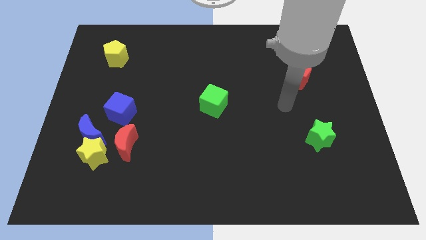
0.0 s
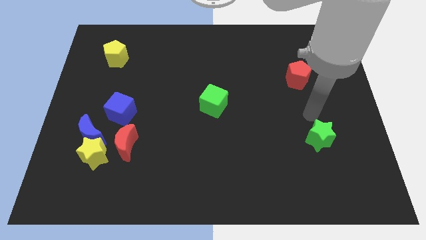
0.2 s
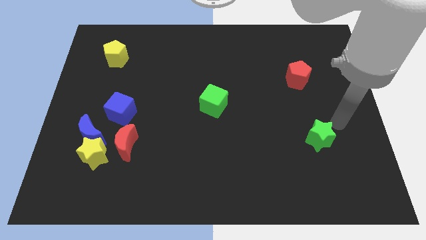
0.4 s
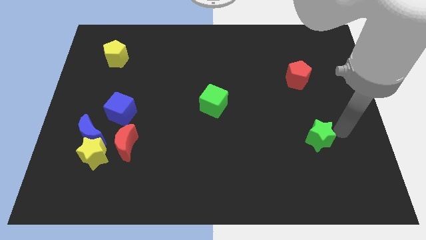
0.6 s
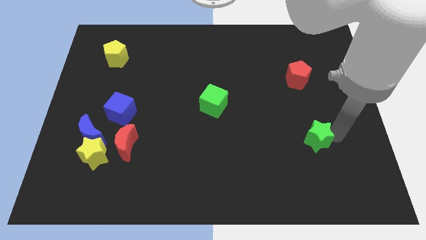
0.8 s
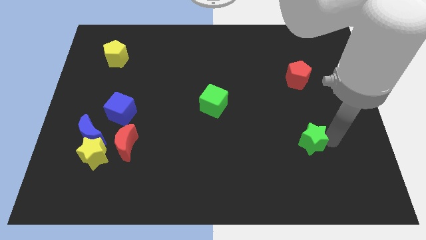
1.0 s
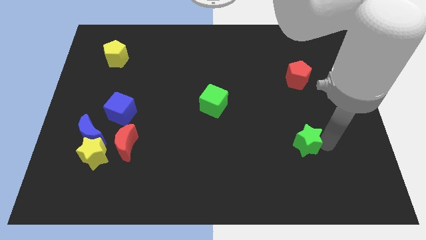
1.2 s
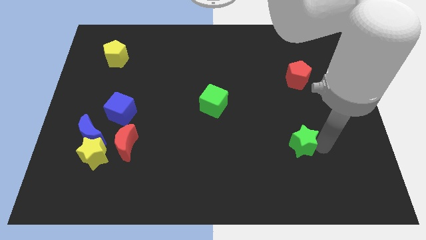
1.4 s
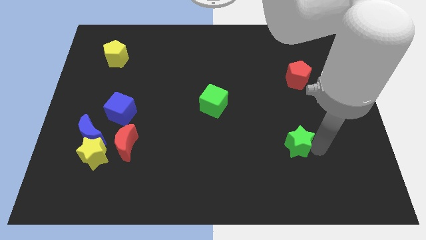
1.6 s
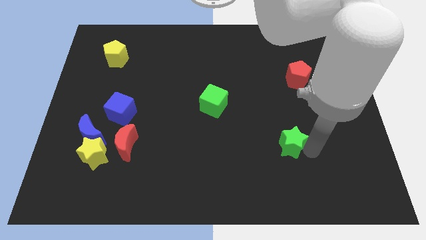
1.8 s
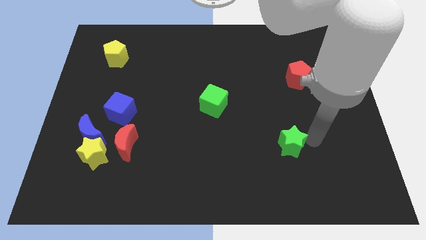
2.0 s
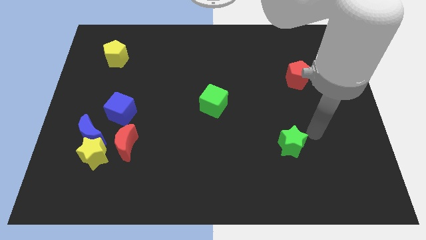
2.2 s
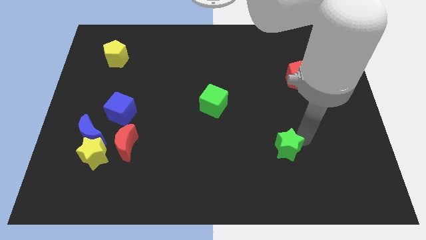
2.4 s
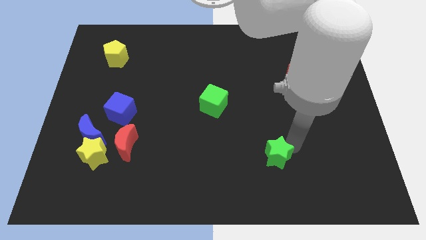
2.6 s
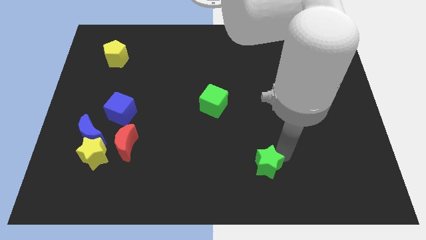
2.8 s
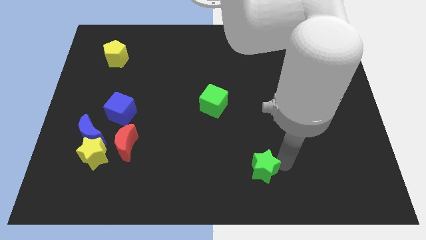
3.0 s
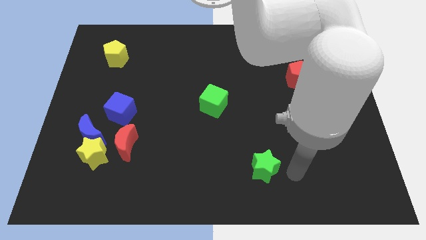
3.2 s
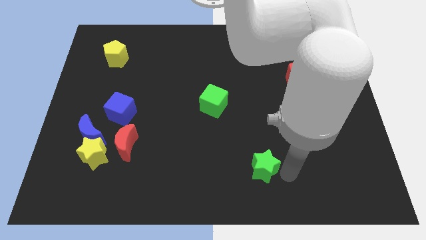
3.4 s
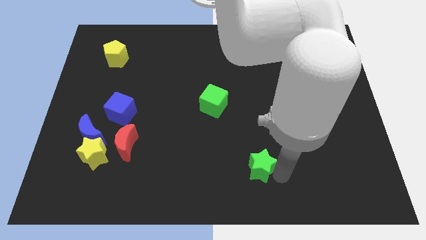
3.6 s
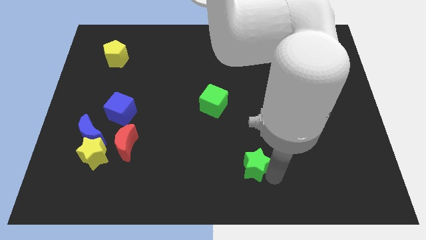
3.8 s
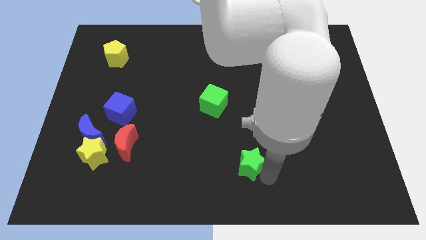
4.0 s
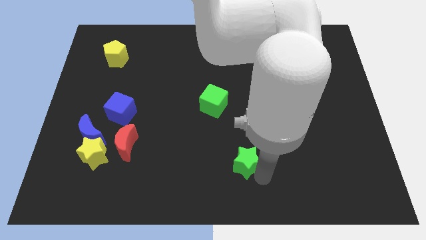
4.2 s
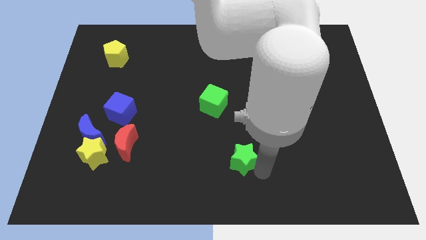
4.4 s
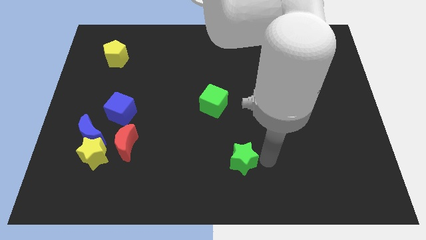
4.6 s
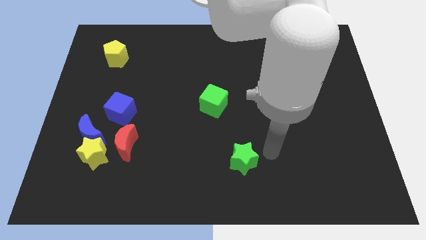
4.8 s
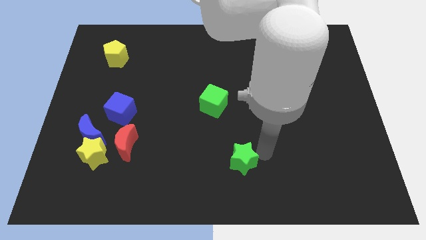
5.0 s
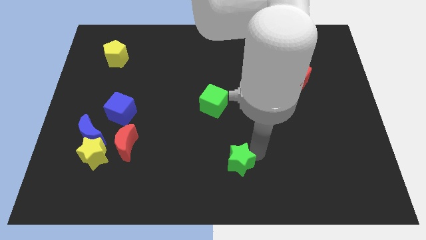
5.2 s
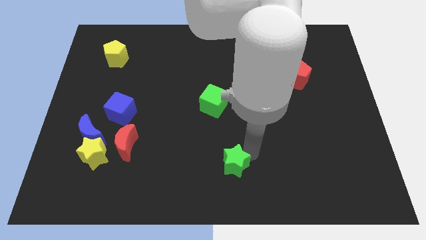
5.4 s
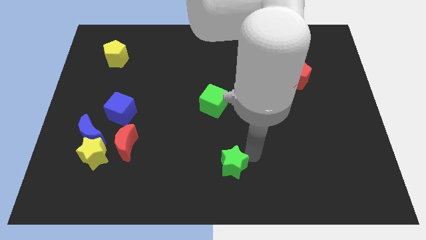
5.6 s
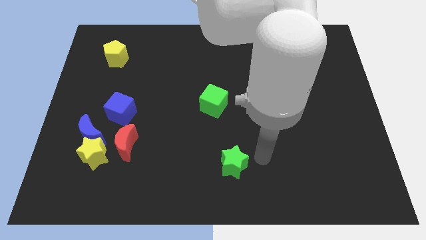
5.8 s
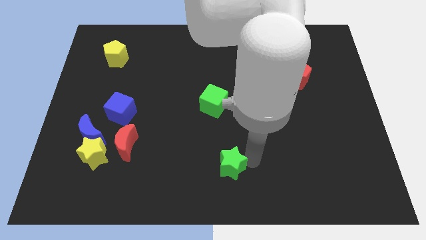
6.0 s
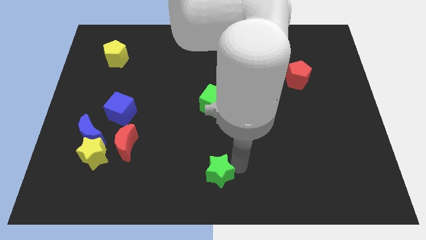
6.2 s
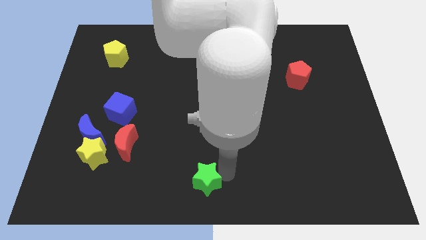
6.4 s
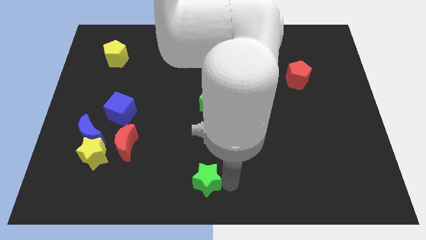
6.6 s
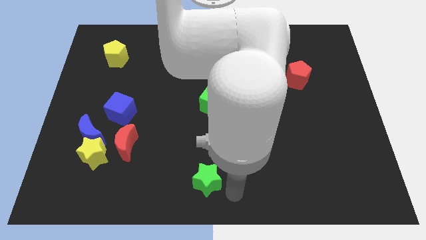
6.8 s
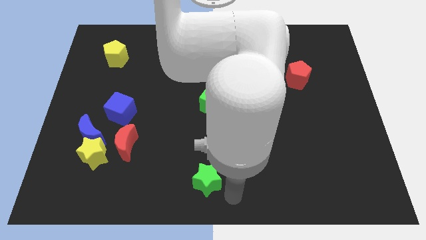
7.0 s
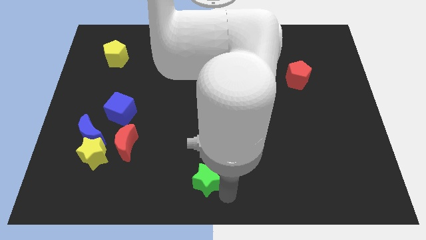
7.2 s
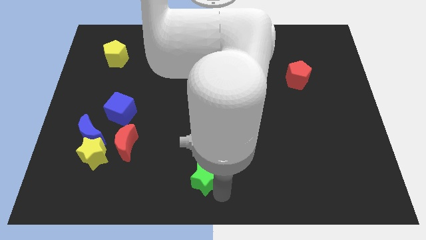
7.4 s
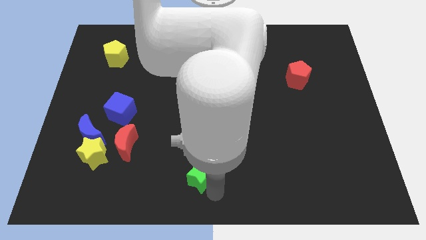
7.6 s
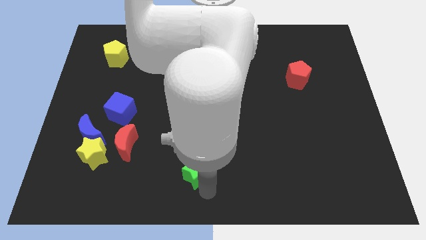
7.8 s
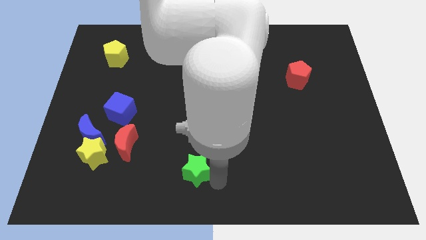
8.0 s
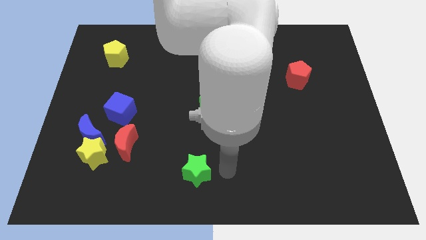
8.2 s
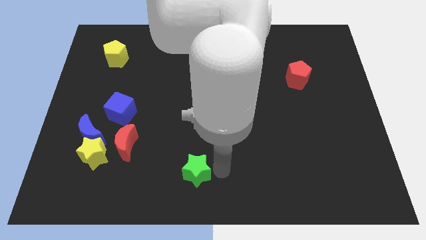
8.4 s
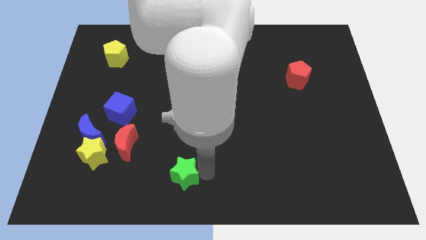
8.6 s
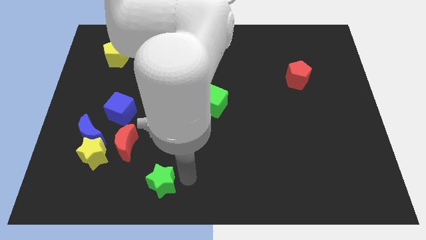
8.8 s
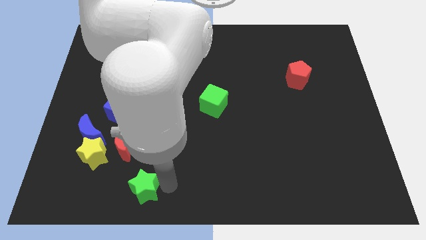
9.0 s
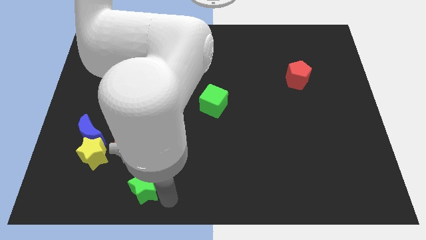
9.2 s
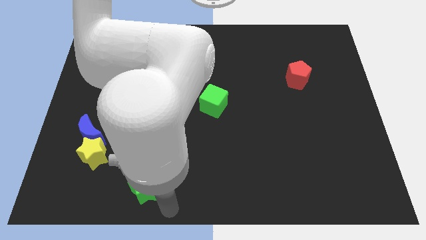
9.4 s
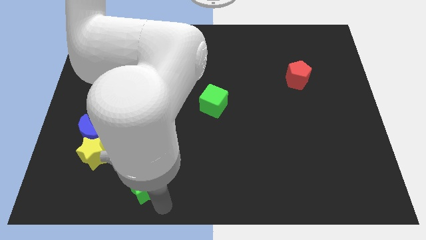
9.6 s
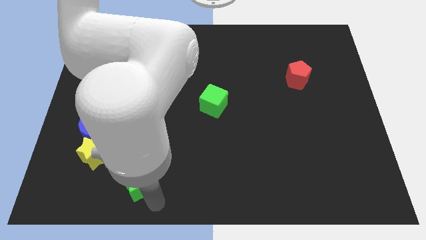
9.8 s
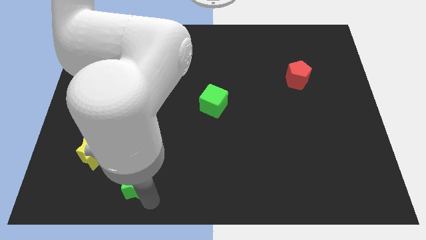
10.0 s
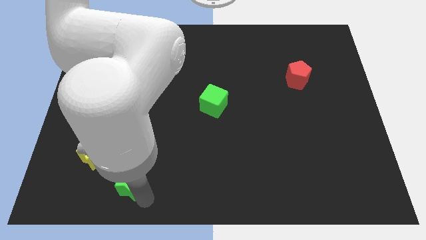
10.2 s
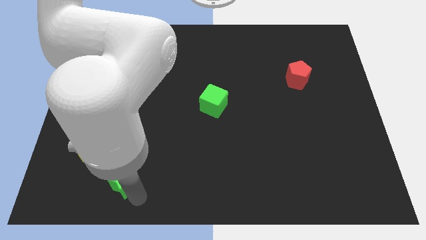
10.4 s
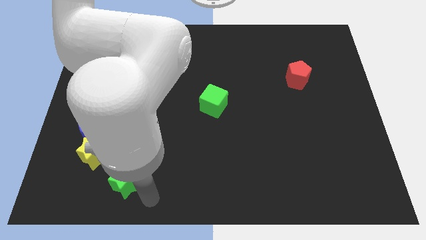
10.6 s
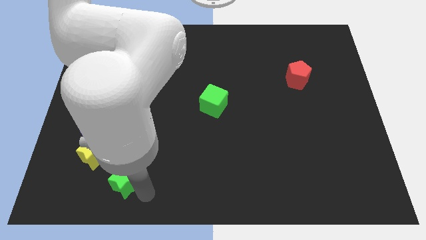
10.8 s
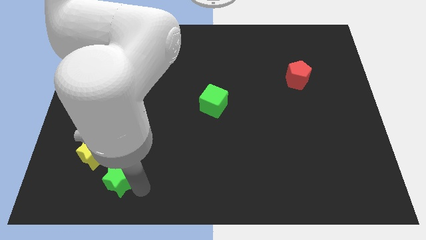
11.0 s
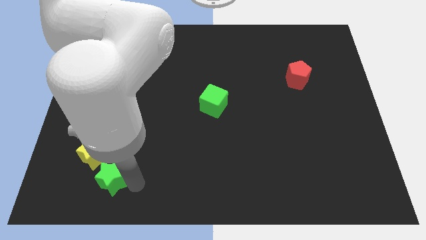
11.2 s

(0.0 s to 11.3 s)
move the green star to the bottom left side of the red moon

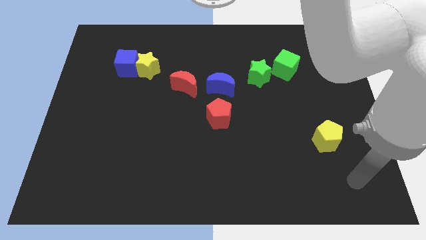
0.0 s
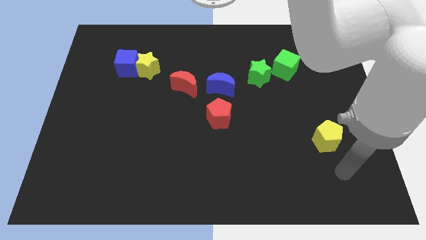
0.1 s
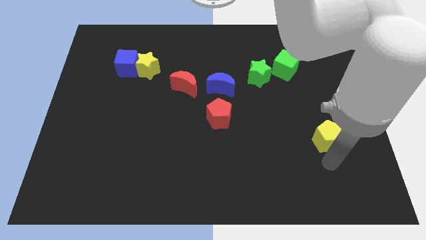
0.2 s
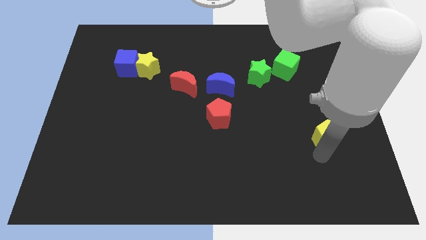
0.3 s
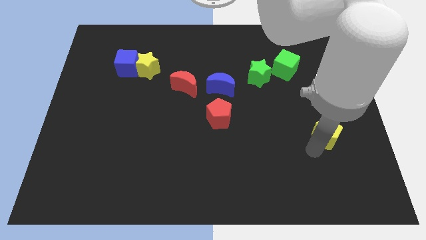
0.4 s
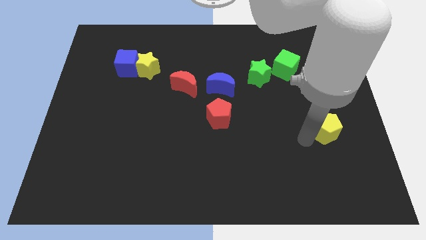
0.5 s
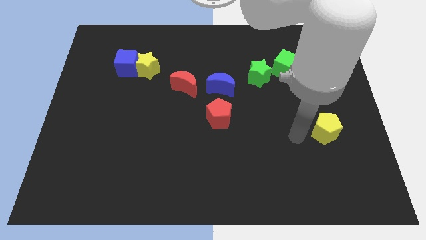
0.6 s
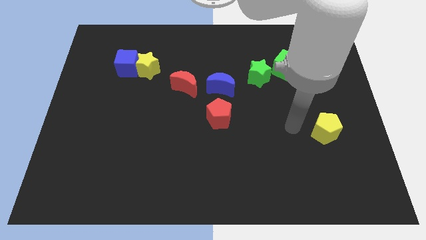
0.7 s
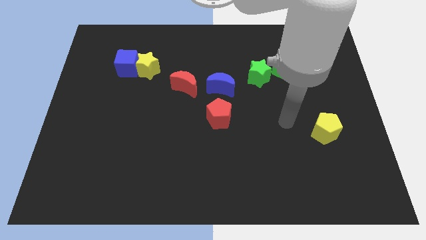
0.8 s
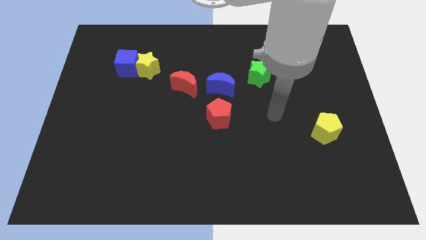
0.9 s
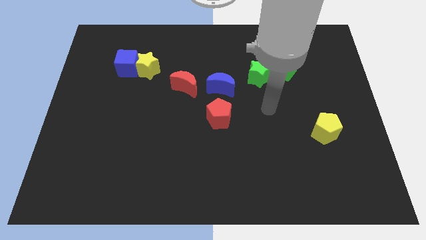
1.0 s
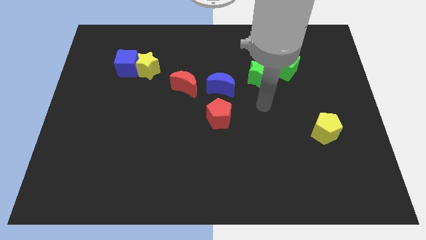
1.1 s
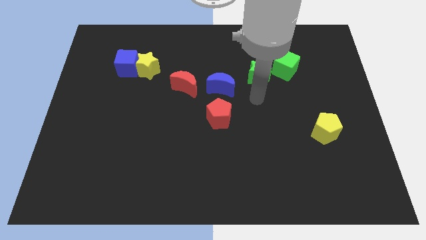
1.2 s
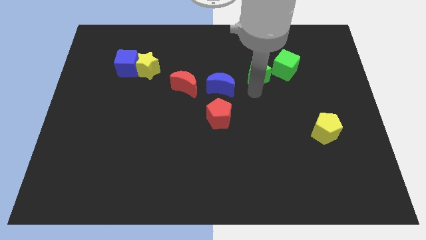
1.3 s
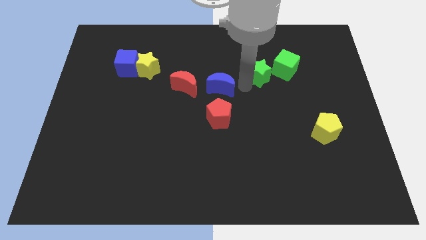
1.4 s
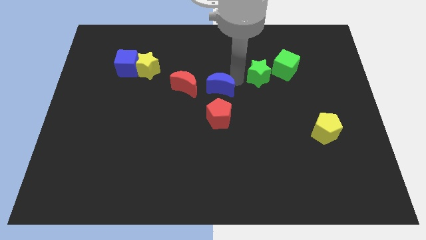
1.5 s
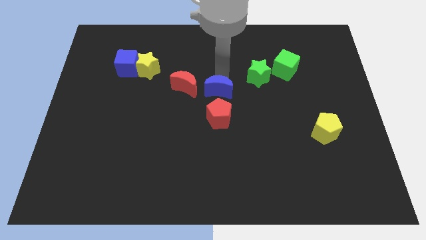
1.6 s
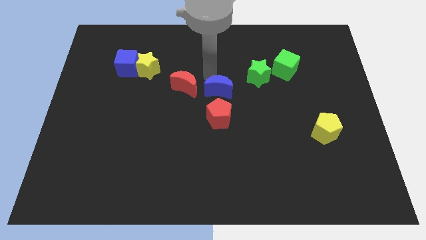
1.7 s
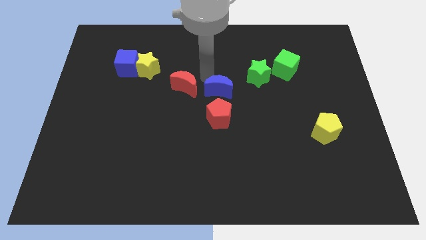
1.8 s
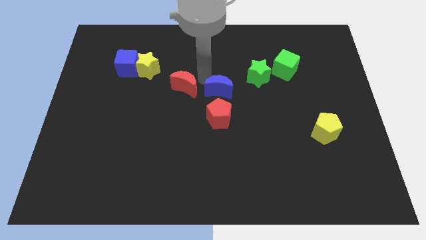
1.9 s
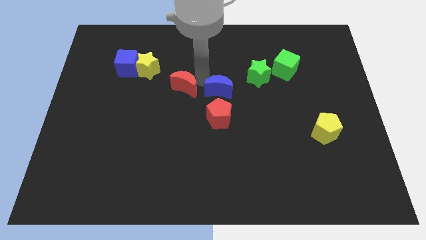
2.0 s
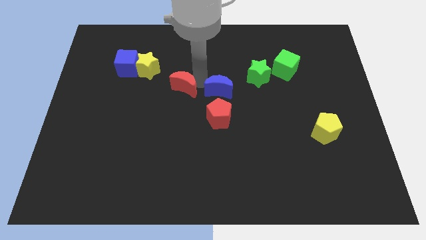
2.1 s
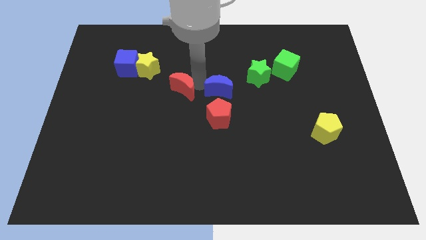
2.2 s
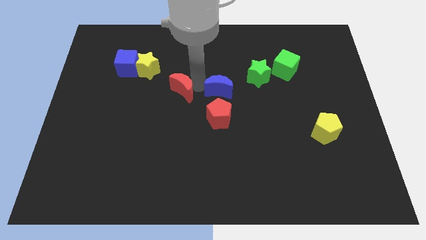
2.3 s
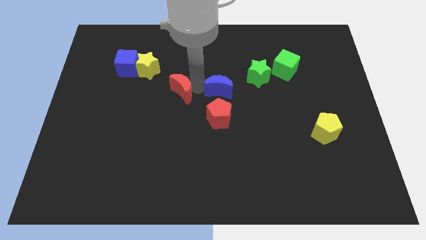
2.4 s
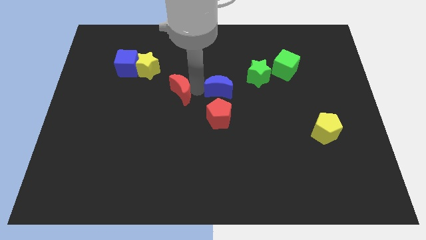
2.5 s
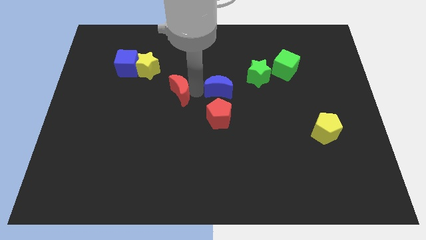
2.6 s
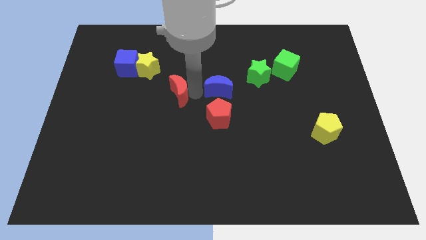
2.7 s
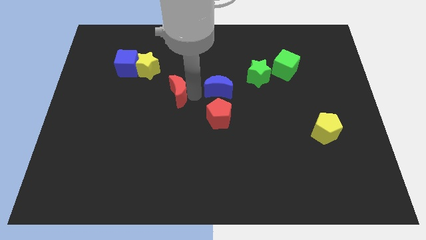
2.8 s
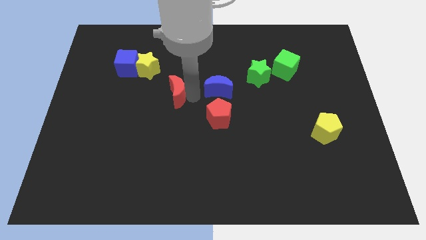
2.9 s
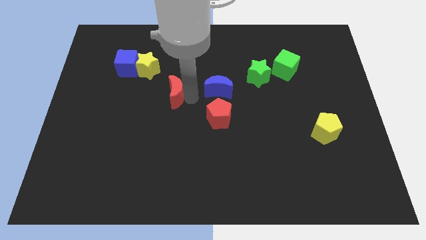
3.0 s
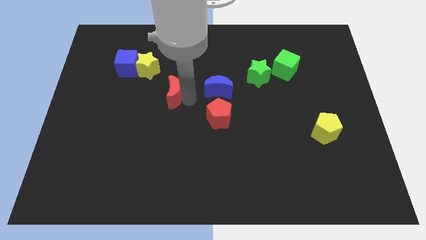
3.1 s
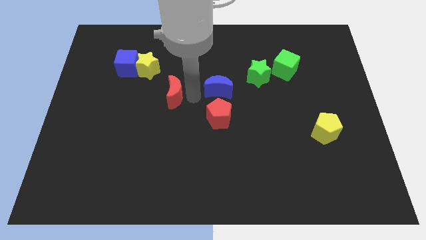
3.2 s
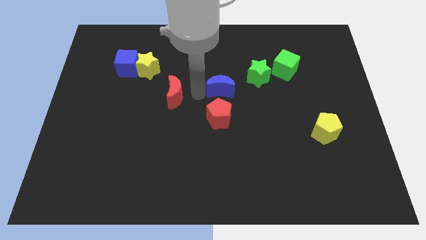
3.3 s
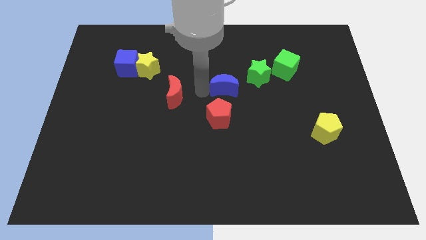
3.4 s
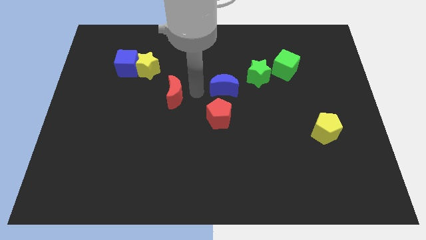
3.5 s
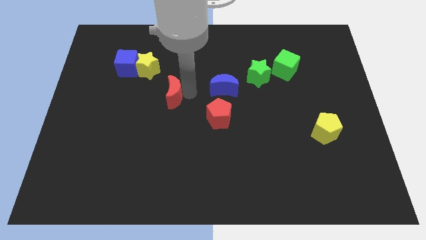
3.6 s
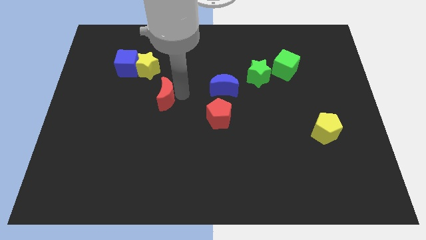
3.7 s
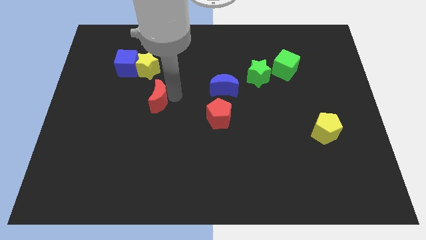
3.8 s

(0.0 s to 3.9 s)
move the red moon to the bottom of the yellow star
